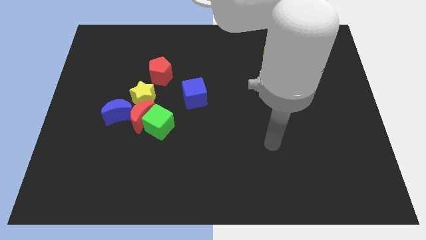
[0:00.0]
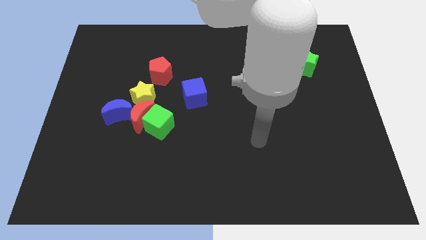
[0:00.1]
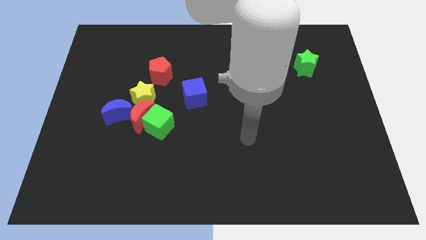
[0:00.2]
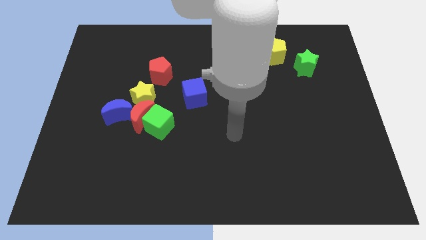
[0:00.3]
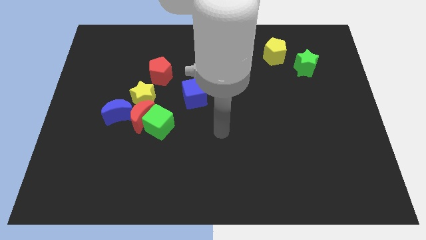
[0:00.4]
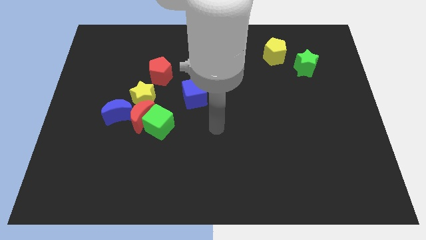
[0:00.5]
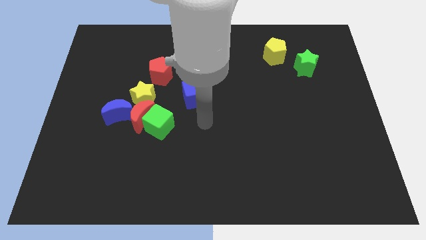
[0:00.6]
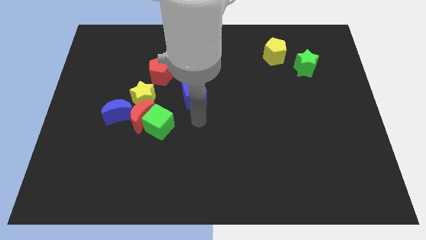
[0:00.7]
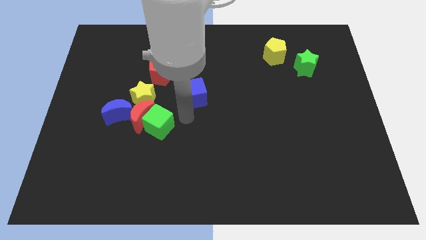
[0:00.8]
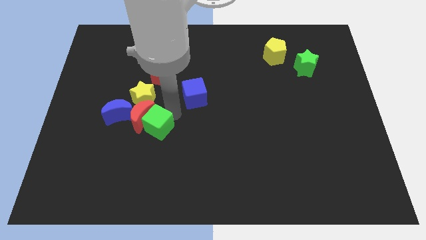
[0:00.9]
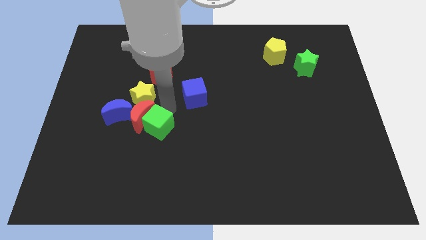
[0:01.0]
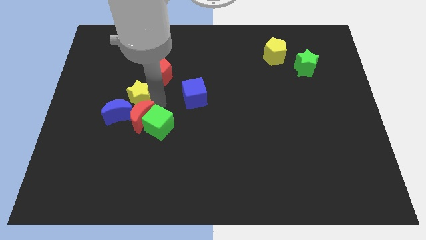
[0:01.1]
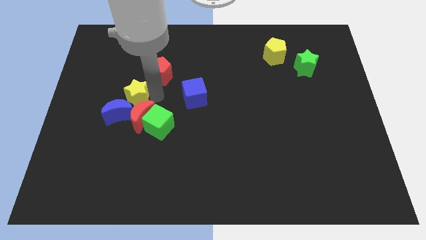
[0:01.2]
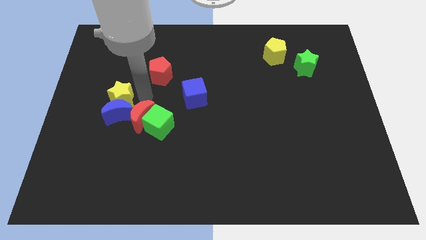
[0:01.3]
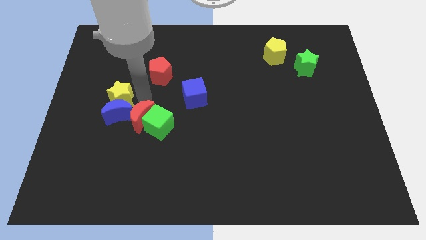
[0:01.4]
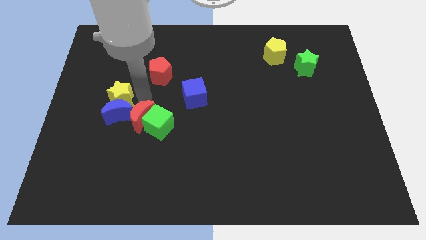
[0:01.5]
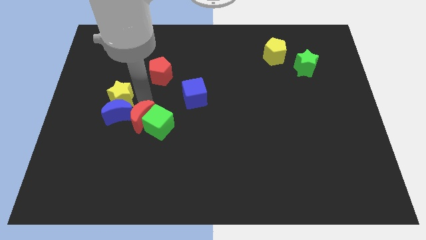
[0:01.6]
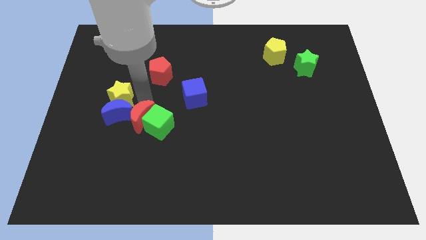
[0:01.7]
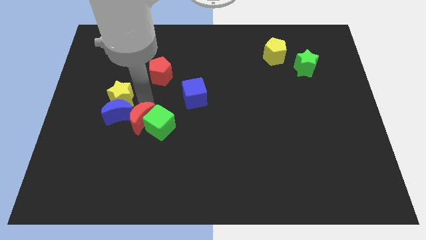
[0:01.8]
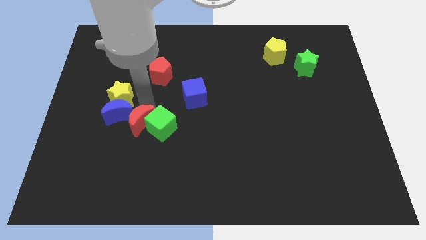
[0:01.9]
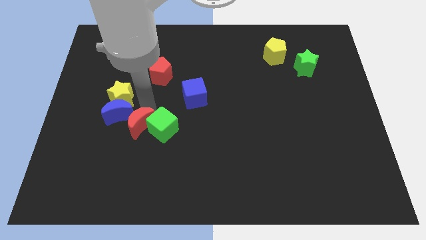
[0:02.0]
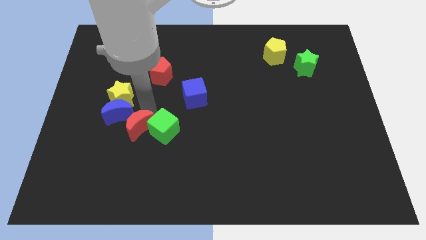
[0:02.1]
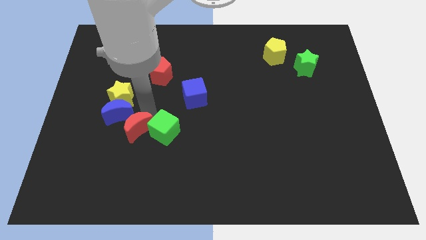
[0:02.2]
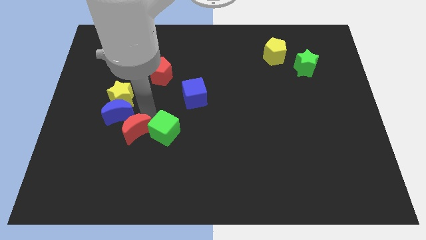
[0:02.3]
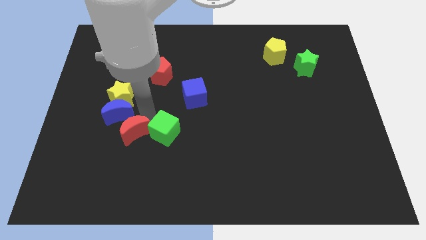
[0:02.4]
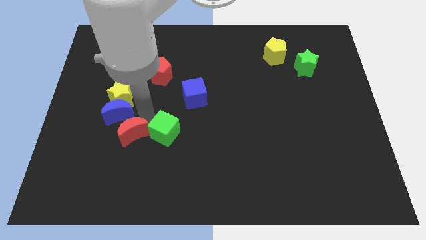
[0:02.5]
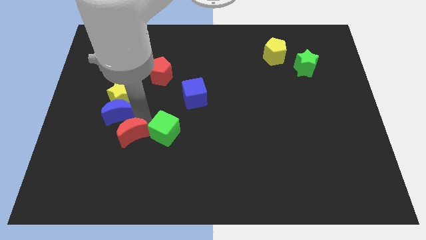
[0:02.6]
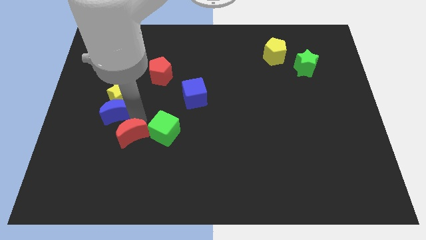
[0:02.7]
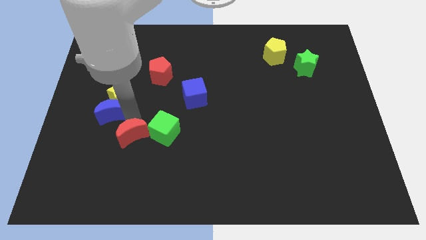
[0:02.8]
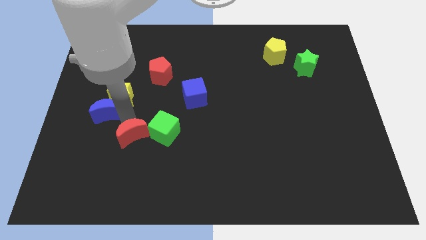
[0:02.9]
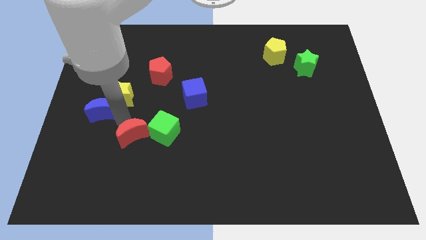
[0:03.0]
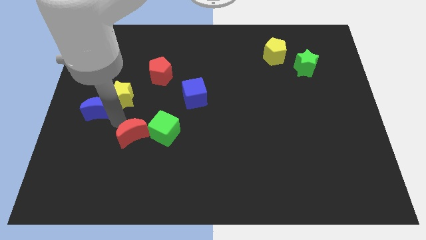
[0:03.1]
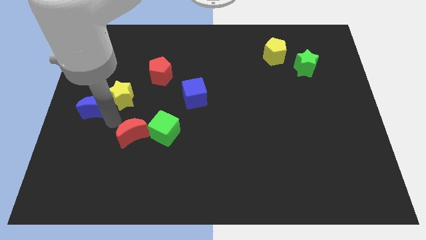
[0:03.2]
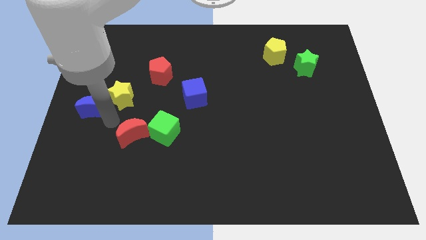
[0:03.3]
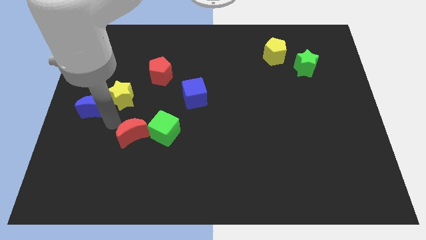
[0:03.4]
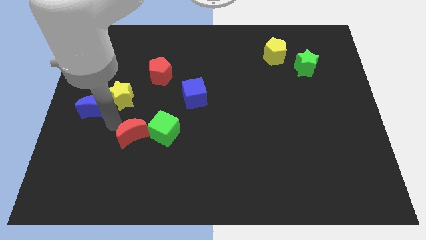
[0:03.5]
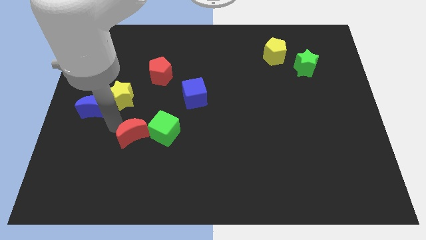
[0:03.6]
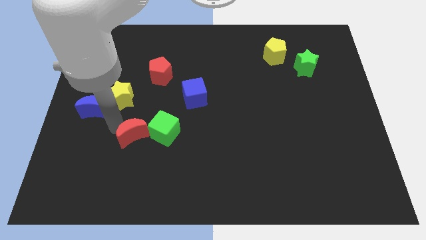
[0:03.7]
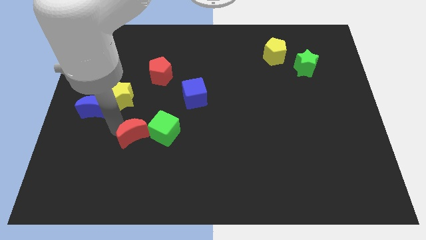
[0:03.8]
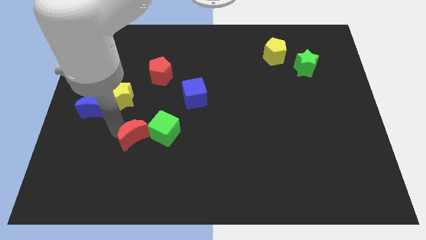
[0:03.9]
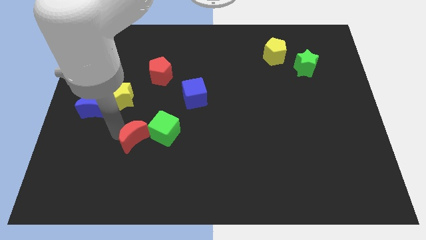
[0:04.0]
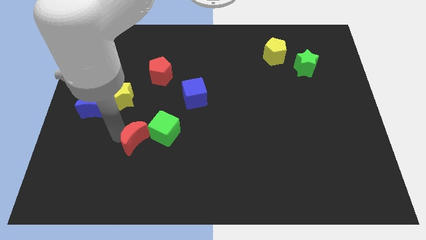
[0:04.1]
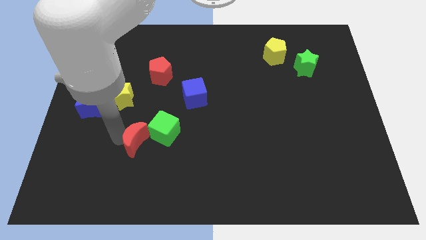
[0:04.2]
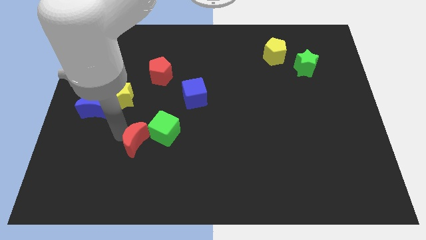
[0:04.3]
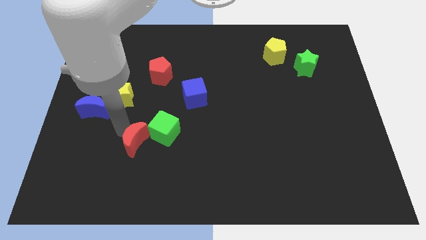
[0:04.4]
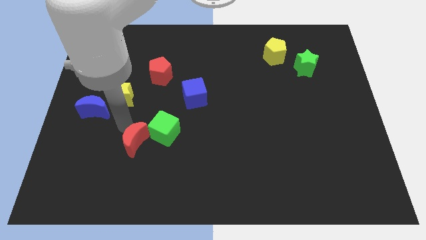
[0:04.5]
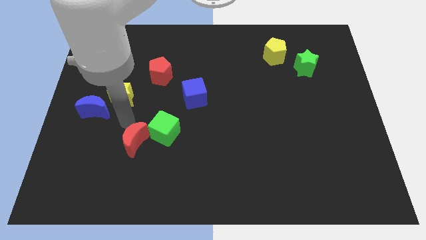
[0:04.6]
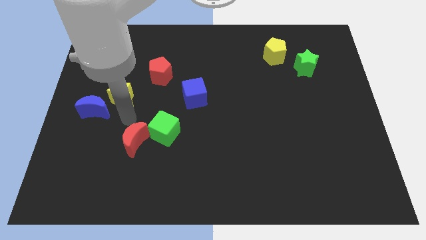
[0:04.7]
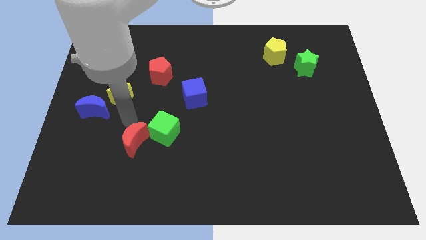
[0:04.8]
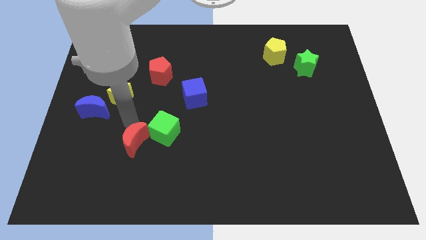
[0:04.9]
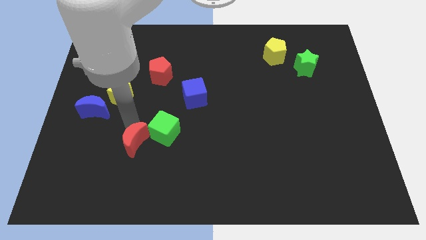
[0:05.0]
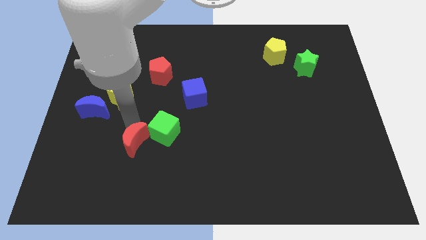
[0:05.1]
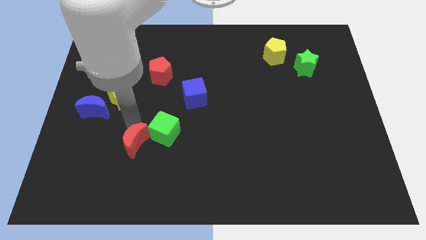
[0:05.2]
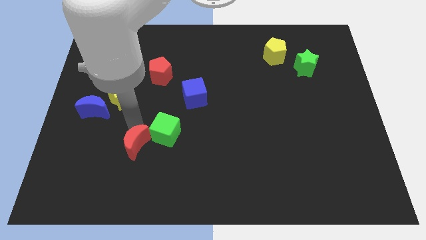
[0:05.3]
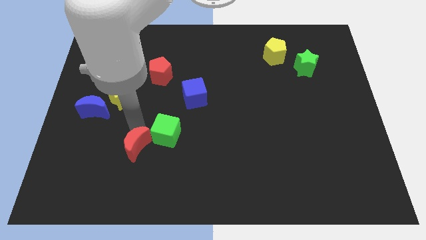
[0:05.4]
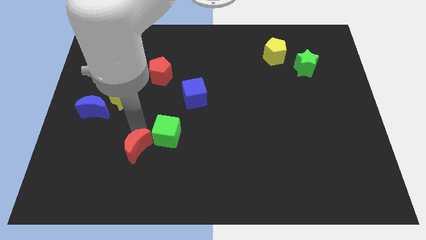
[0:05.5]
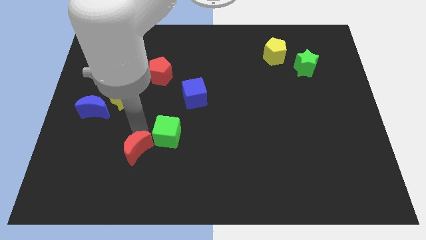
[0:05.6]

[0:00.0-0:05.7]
move the red moon away from the clump

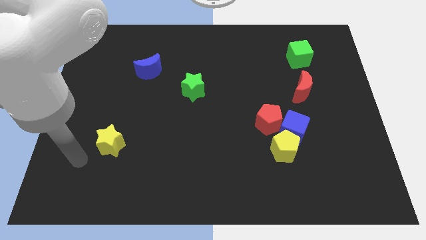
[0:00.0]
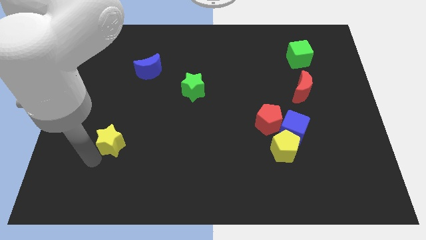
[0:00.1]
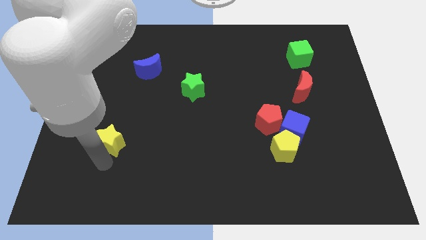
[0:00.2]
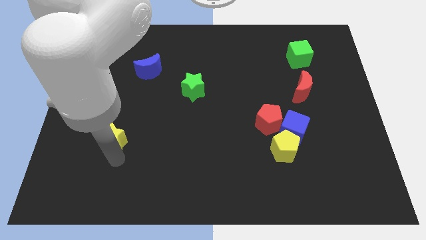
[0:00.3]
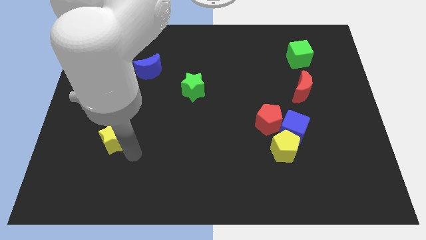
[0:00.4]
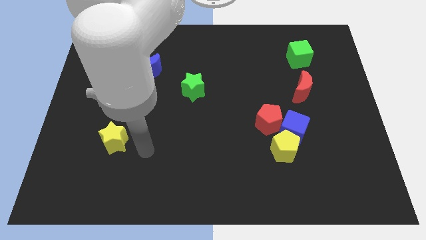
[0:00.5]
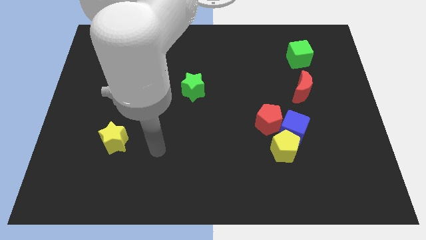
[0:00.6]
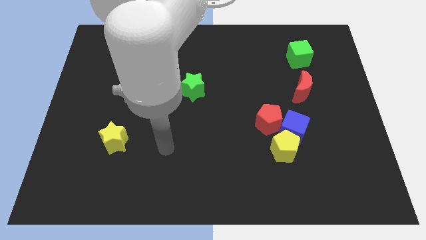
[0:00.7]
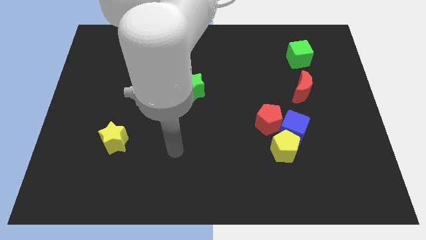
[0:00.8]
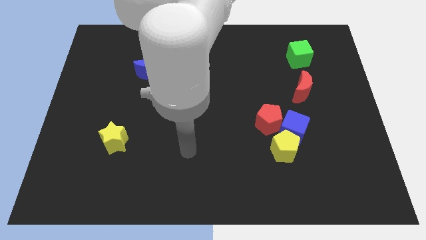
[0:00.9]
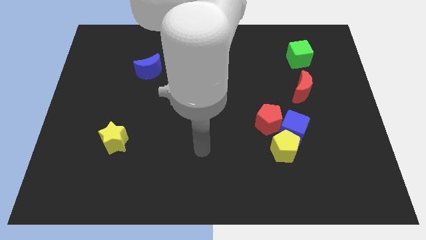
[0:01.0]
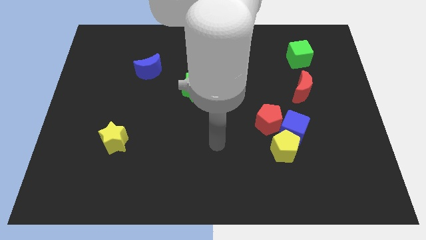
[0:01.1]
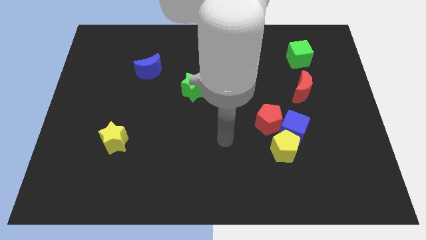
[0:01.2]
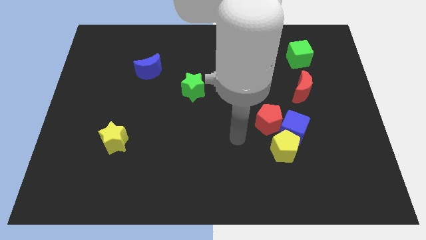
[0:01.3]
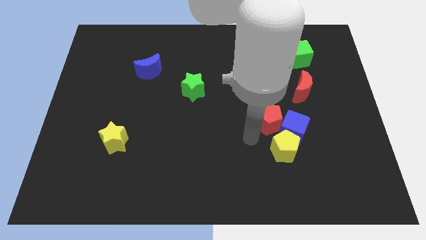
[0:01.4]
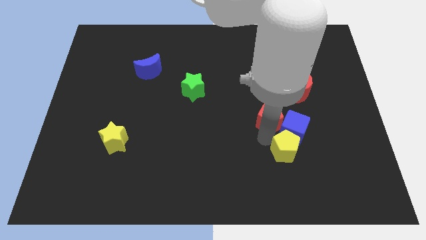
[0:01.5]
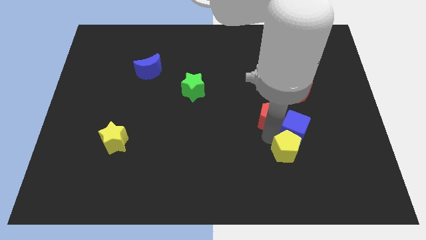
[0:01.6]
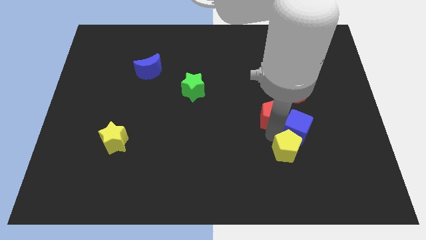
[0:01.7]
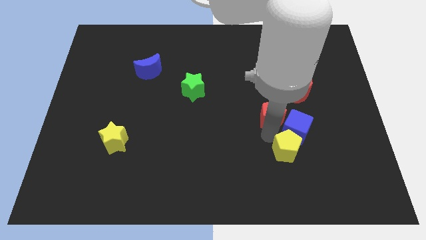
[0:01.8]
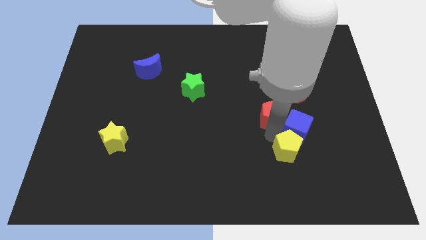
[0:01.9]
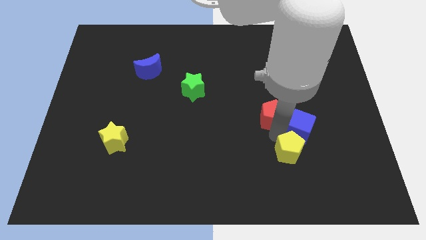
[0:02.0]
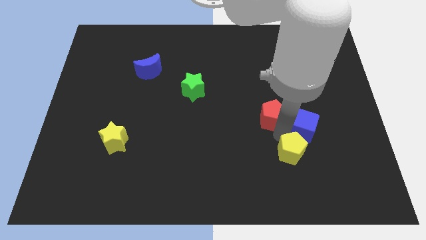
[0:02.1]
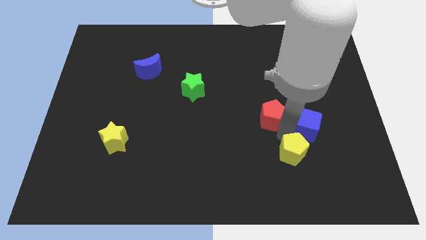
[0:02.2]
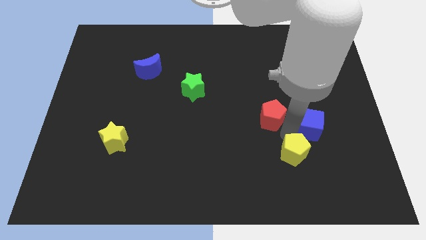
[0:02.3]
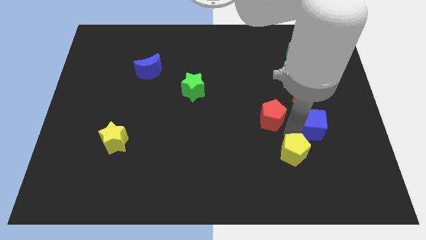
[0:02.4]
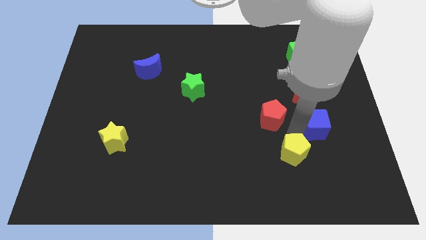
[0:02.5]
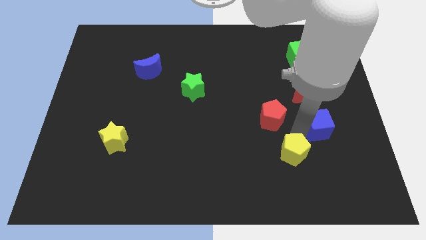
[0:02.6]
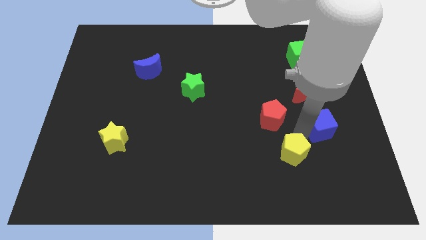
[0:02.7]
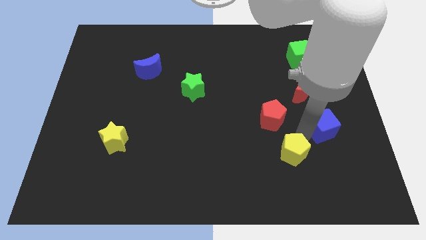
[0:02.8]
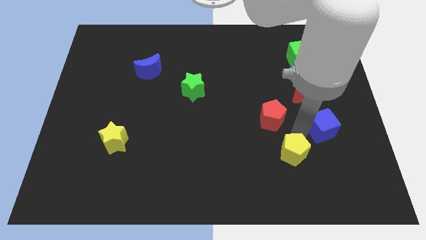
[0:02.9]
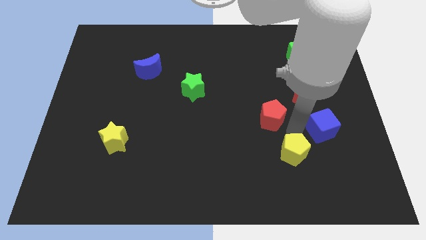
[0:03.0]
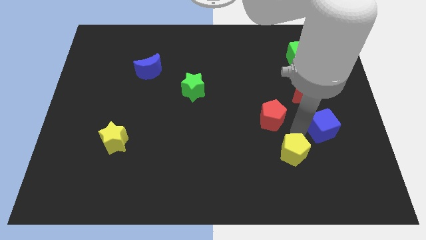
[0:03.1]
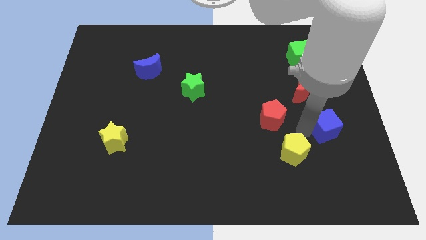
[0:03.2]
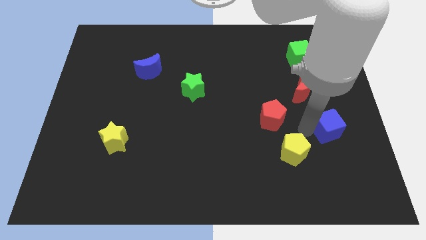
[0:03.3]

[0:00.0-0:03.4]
move the blue cube away from the yellow pentagon and red pentagon
